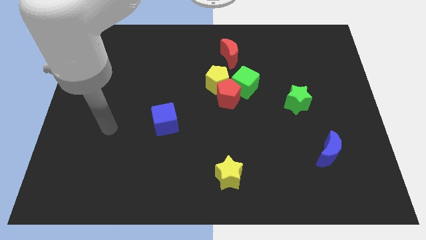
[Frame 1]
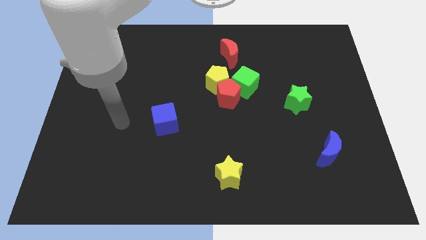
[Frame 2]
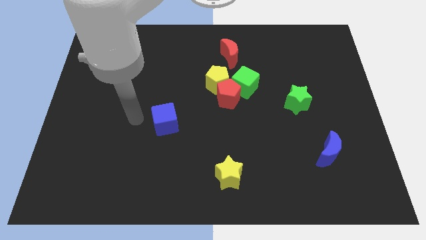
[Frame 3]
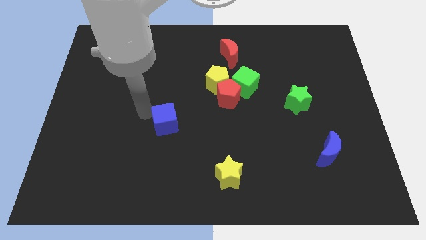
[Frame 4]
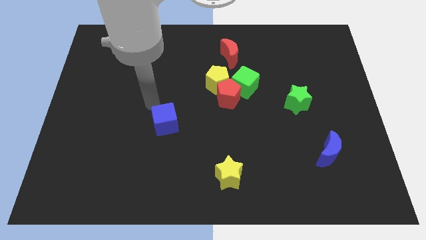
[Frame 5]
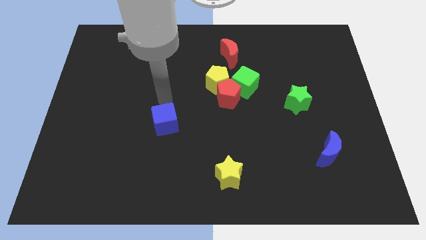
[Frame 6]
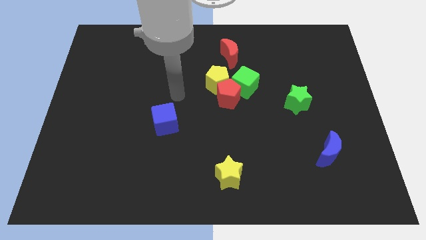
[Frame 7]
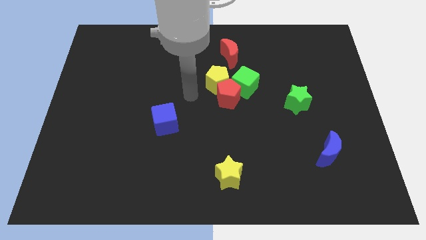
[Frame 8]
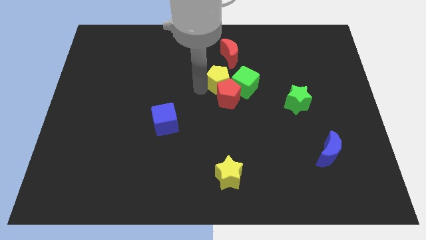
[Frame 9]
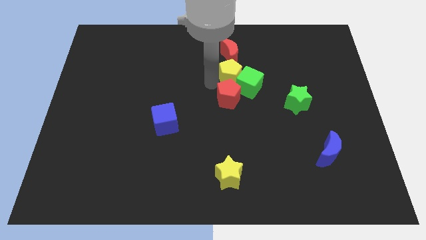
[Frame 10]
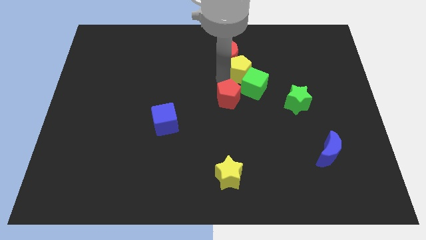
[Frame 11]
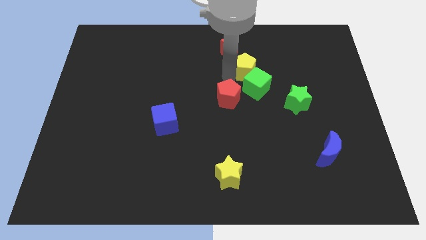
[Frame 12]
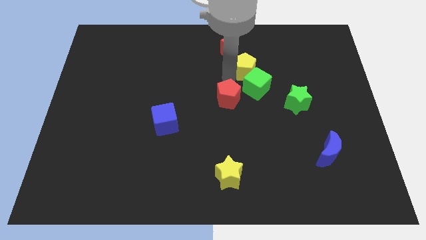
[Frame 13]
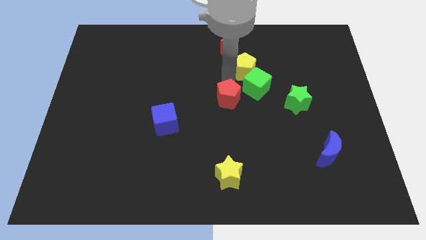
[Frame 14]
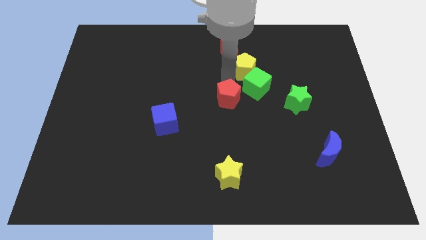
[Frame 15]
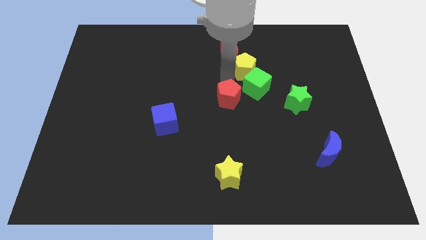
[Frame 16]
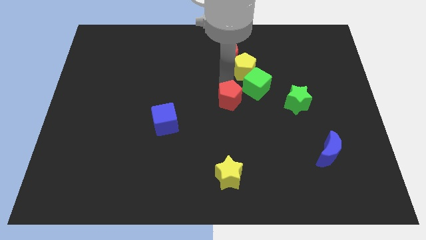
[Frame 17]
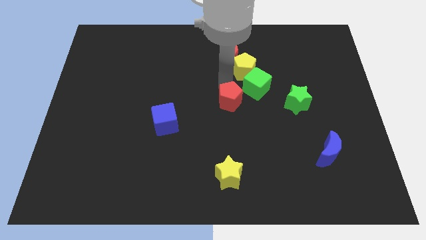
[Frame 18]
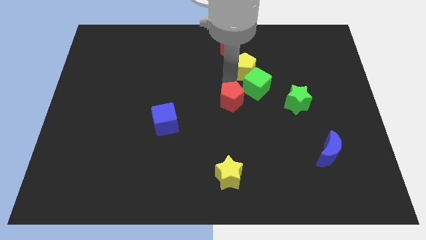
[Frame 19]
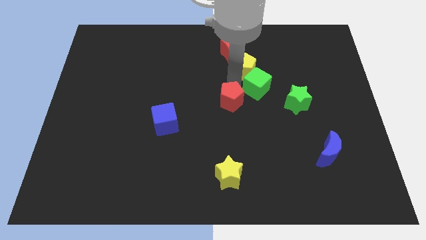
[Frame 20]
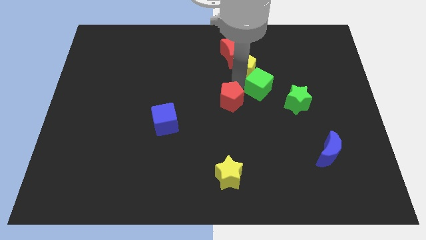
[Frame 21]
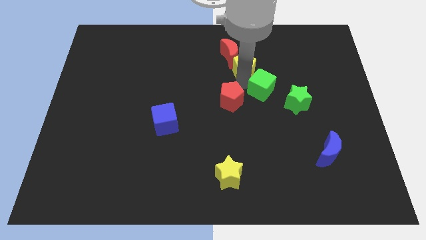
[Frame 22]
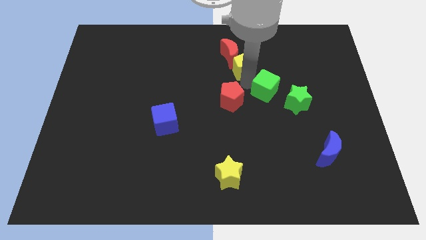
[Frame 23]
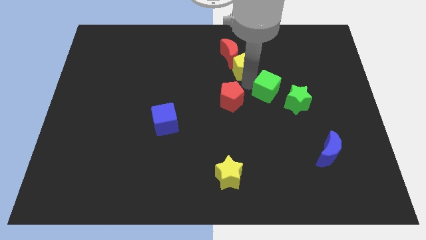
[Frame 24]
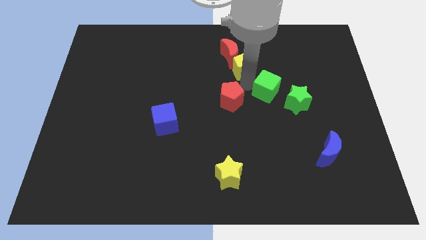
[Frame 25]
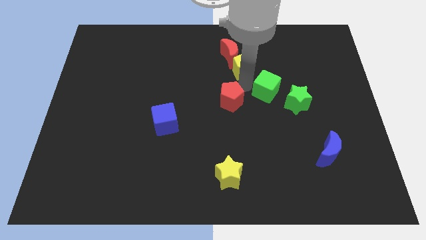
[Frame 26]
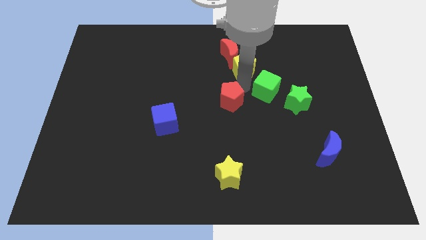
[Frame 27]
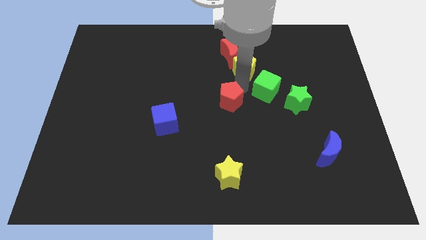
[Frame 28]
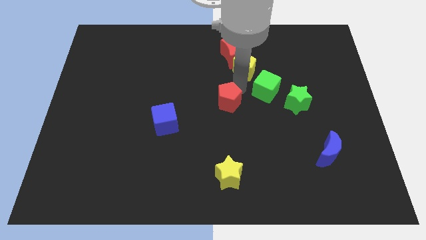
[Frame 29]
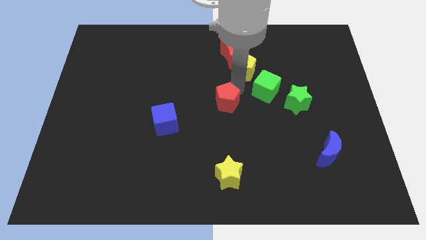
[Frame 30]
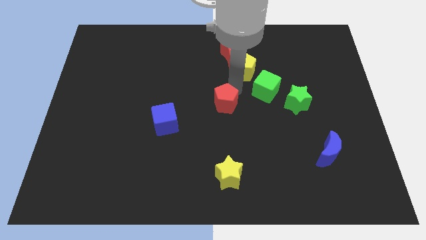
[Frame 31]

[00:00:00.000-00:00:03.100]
move the red pentagon away from the yellow pentagon and green cube

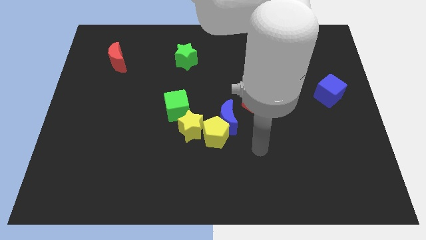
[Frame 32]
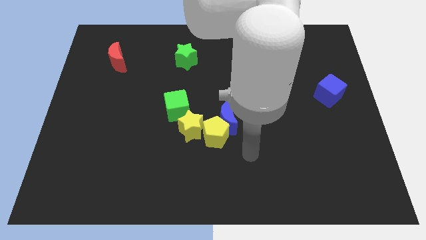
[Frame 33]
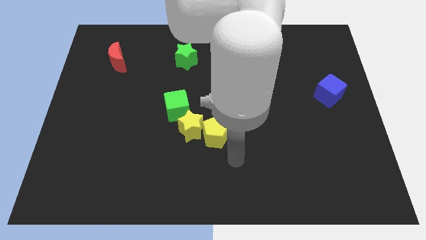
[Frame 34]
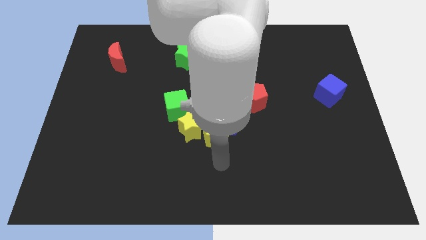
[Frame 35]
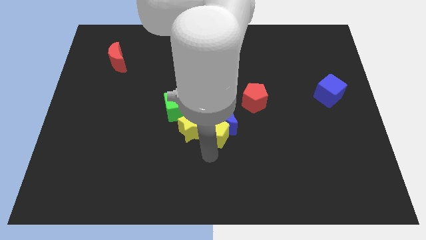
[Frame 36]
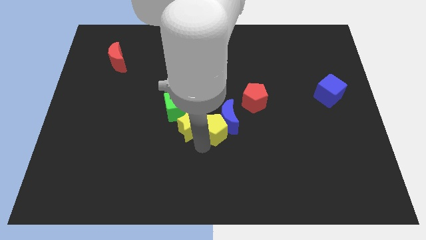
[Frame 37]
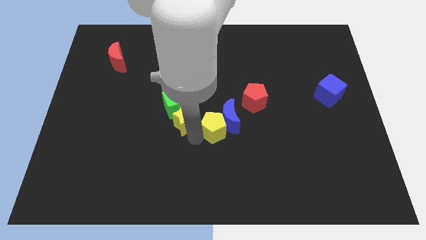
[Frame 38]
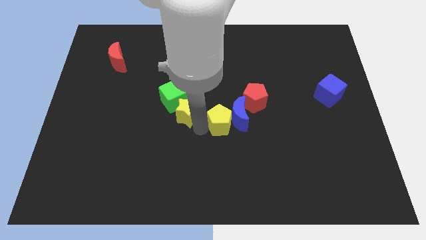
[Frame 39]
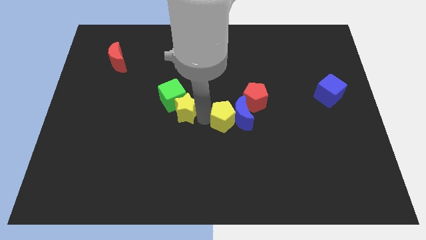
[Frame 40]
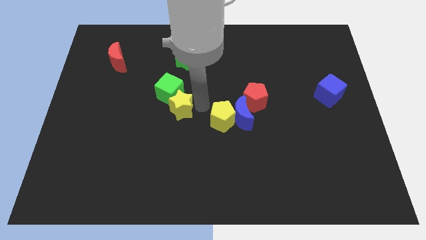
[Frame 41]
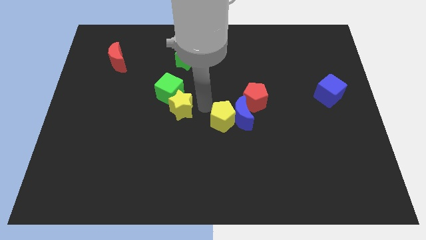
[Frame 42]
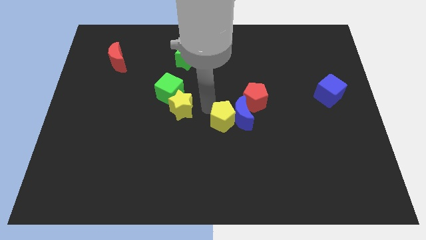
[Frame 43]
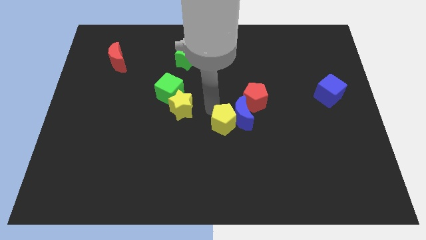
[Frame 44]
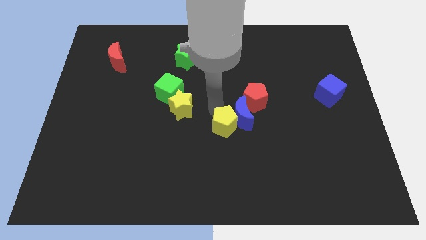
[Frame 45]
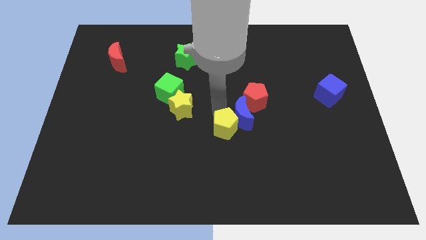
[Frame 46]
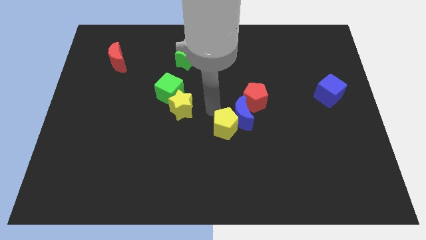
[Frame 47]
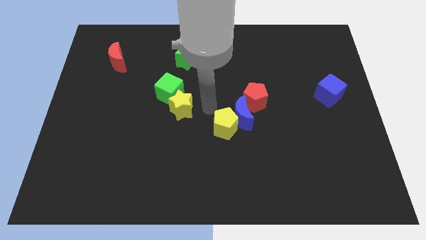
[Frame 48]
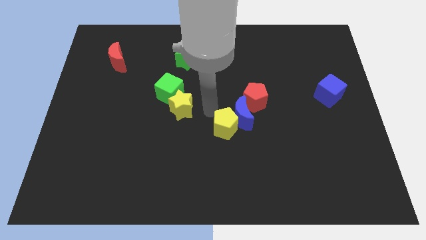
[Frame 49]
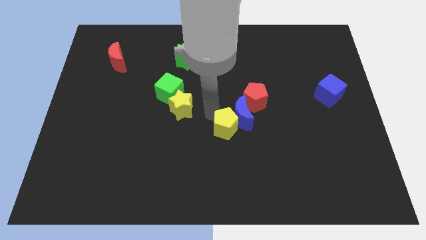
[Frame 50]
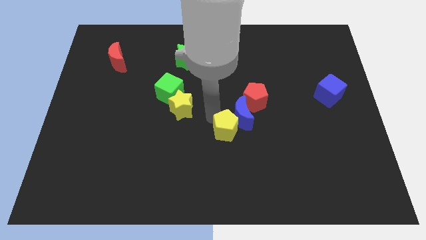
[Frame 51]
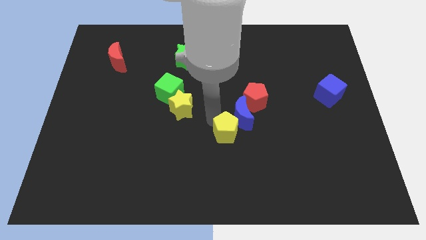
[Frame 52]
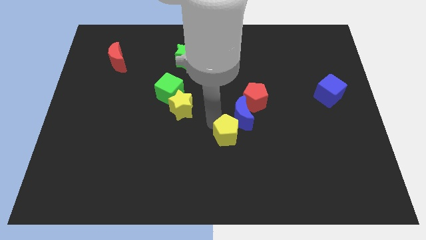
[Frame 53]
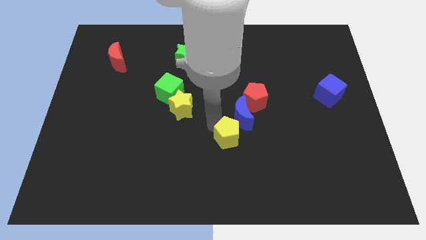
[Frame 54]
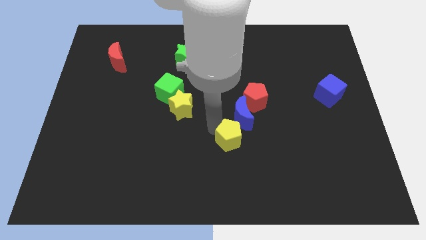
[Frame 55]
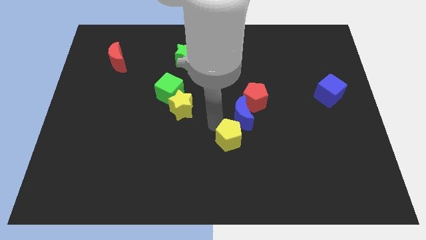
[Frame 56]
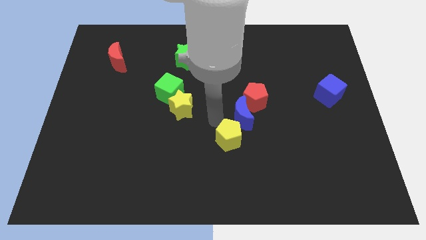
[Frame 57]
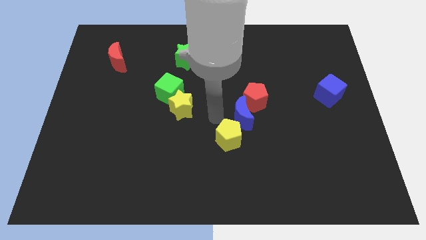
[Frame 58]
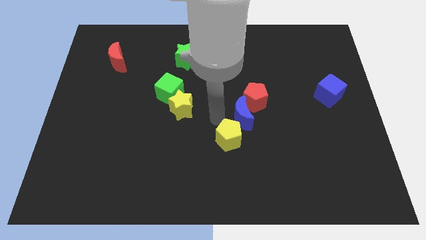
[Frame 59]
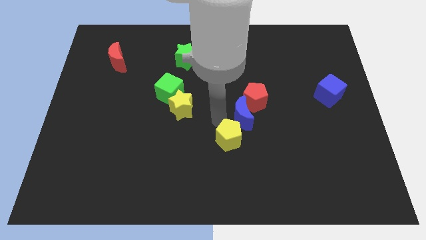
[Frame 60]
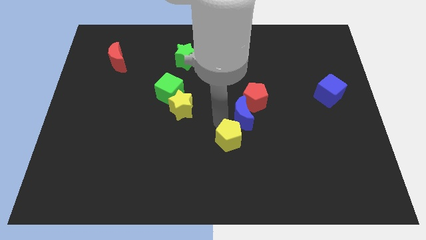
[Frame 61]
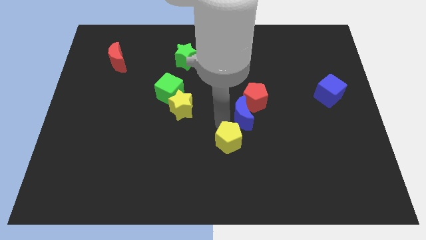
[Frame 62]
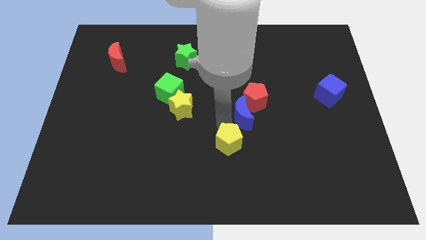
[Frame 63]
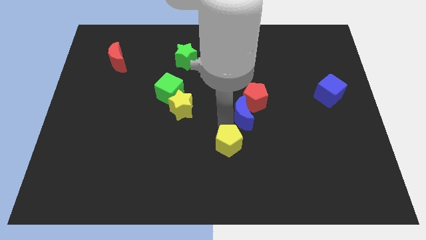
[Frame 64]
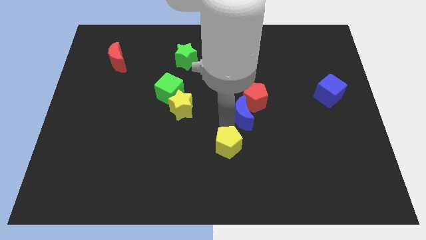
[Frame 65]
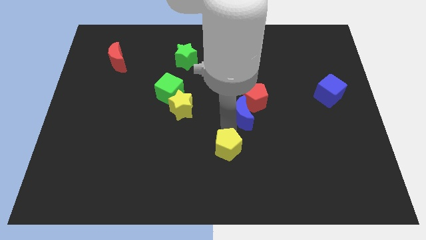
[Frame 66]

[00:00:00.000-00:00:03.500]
move the yellow pentagon away from the blue moon and yellow star

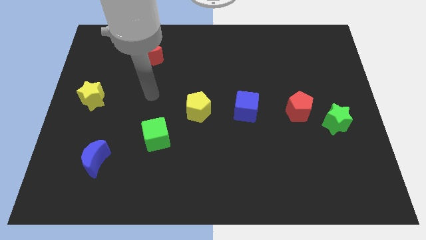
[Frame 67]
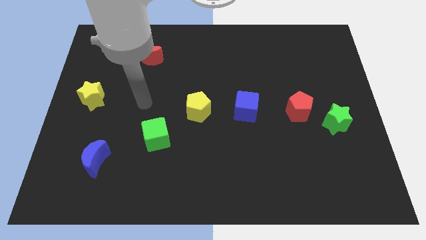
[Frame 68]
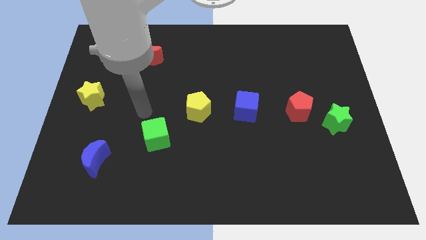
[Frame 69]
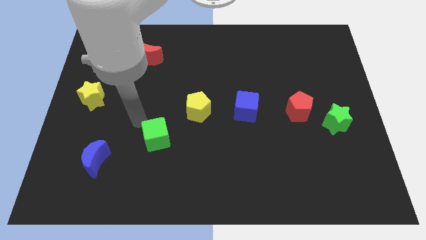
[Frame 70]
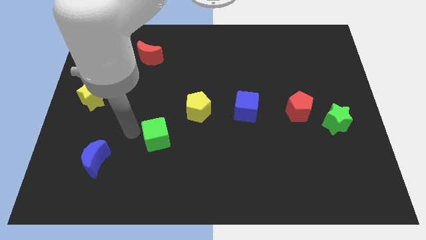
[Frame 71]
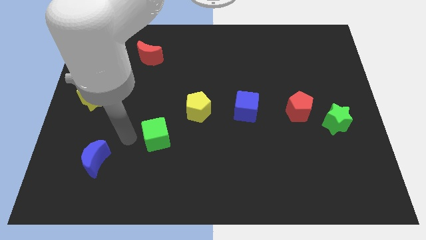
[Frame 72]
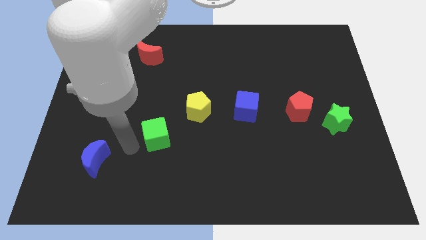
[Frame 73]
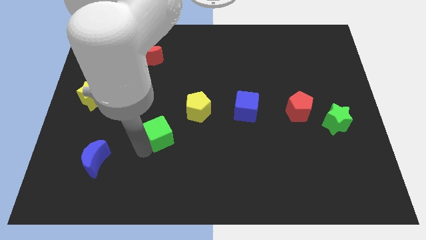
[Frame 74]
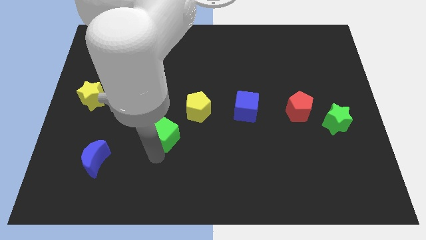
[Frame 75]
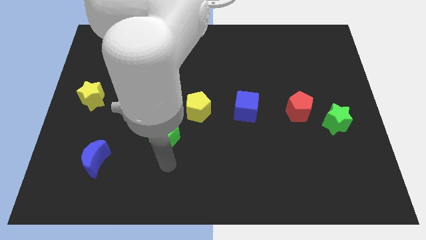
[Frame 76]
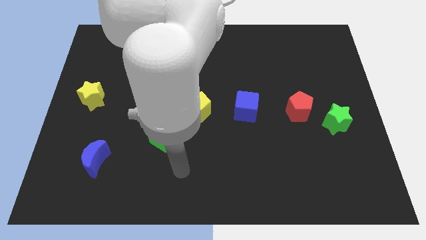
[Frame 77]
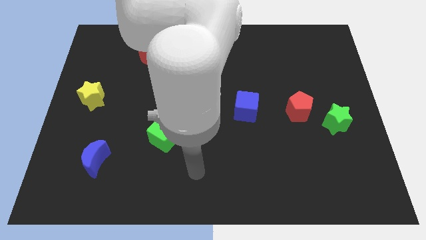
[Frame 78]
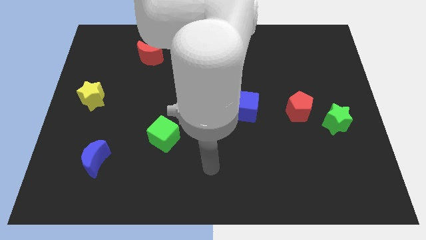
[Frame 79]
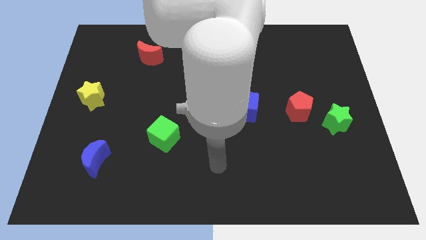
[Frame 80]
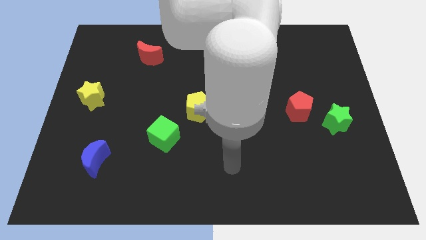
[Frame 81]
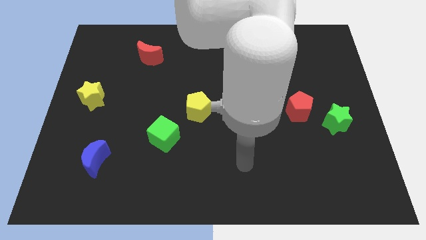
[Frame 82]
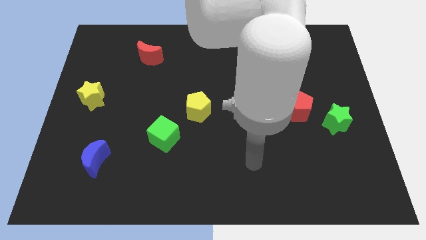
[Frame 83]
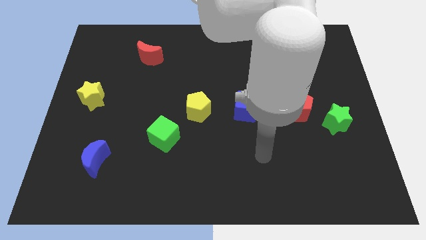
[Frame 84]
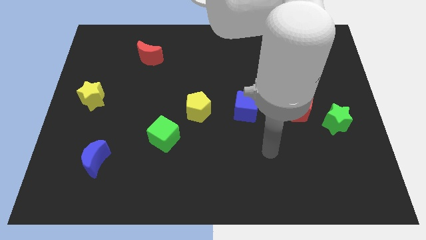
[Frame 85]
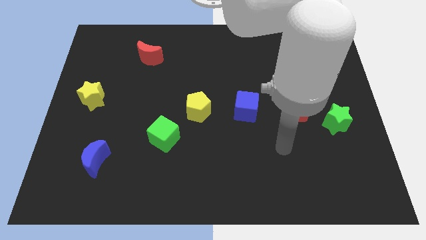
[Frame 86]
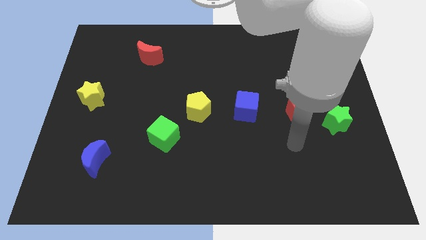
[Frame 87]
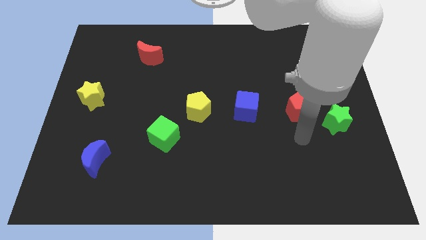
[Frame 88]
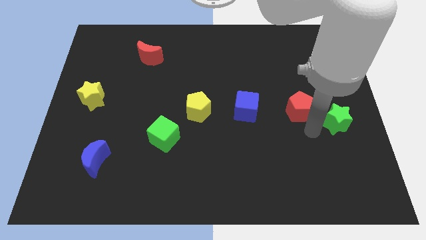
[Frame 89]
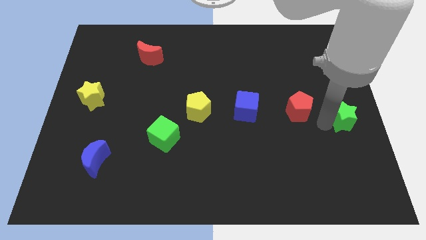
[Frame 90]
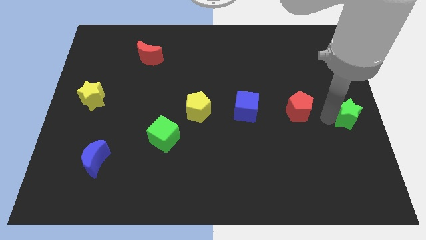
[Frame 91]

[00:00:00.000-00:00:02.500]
separate the red pentagon from the green star

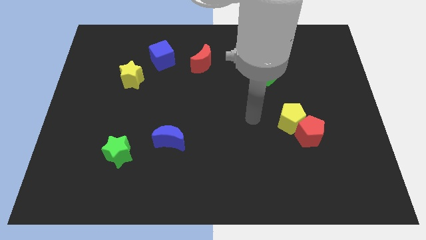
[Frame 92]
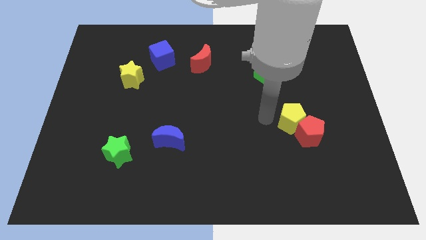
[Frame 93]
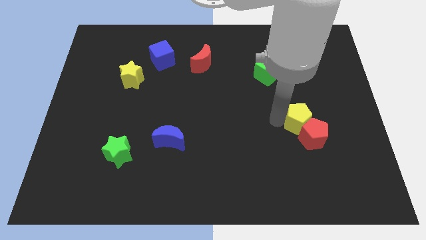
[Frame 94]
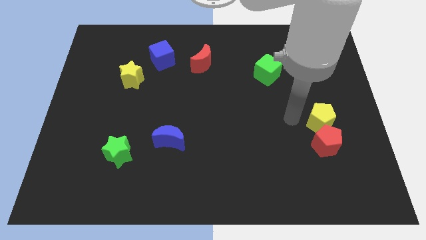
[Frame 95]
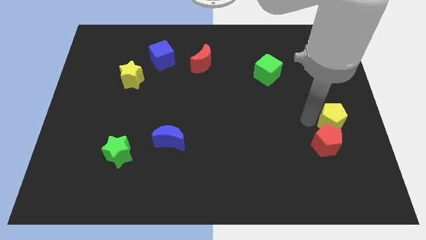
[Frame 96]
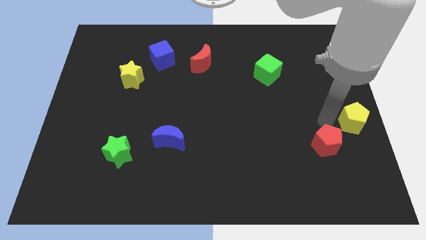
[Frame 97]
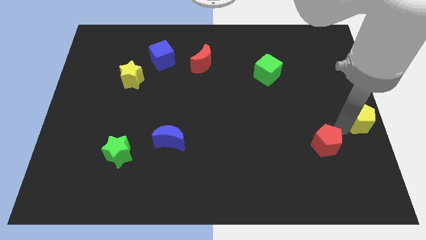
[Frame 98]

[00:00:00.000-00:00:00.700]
move the red pentagon away from the yellow pentagon
